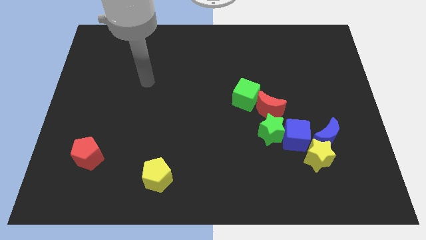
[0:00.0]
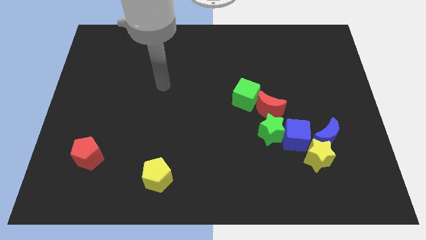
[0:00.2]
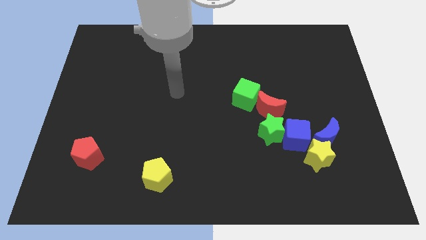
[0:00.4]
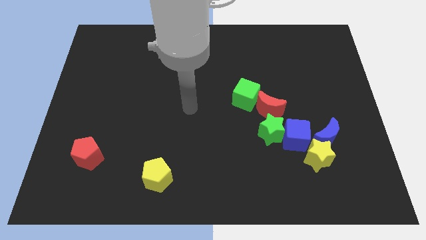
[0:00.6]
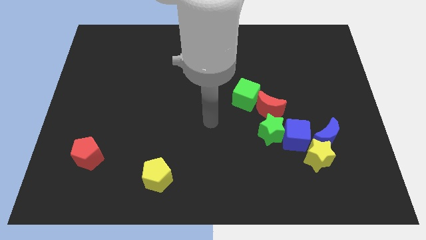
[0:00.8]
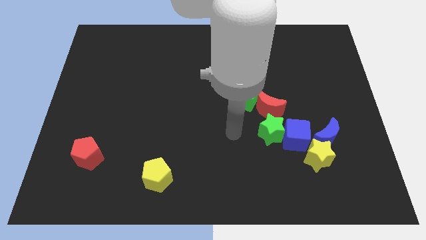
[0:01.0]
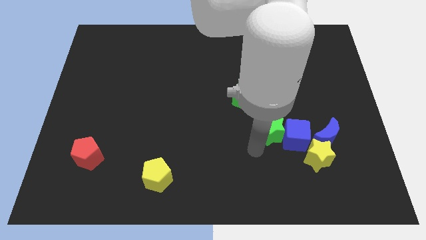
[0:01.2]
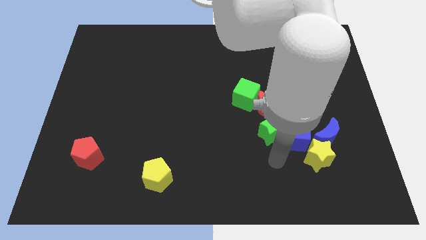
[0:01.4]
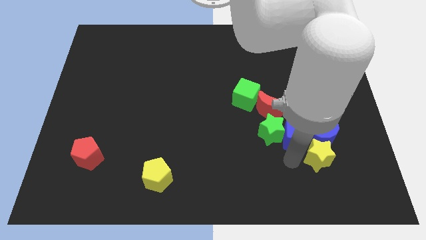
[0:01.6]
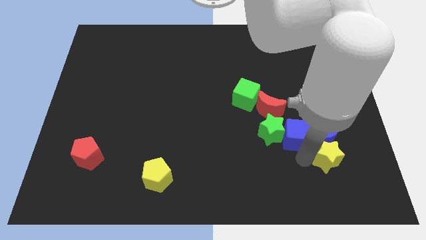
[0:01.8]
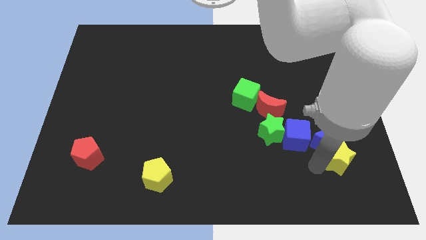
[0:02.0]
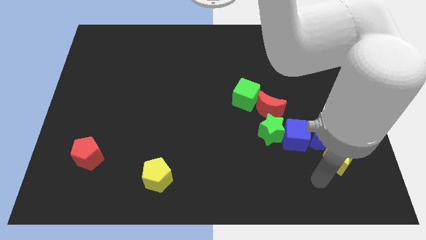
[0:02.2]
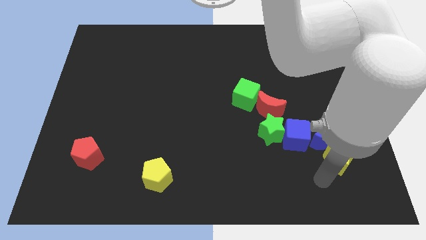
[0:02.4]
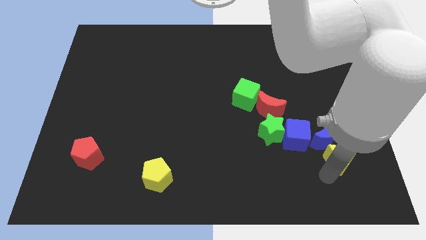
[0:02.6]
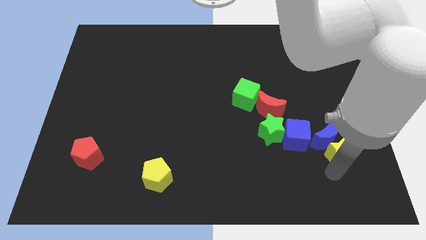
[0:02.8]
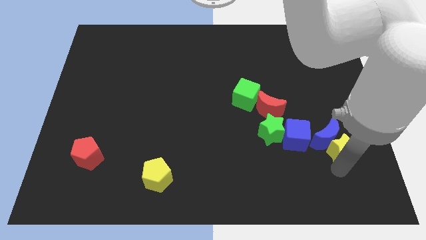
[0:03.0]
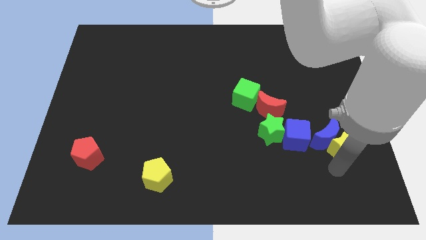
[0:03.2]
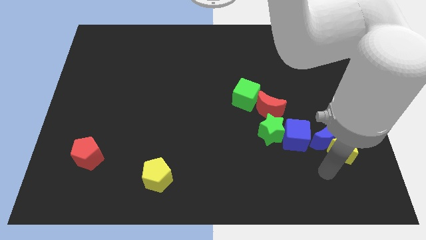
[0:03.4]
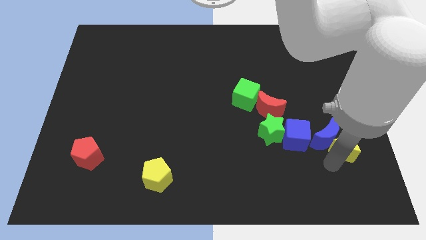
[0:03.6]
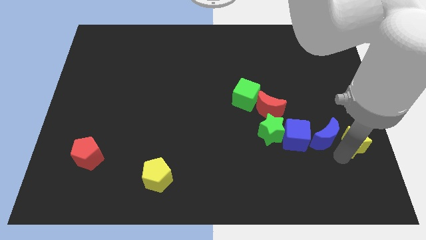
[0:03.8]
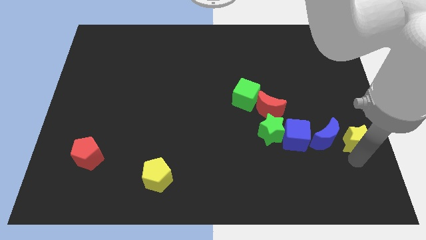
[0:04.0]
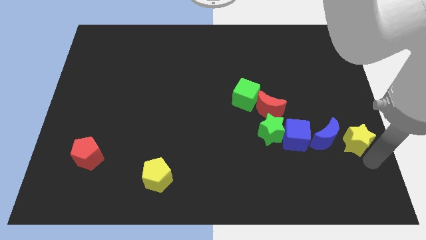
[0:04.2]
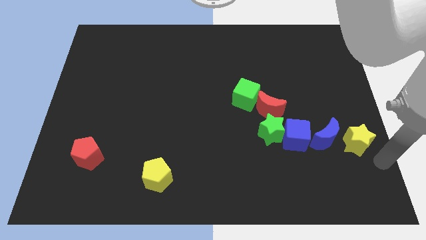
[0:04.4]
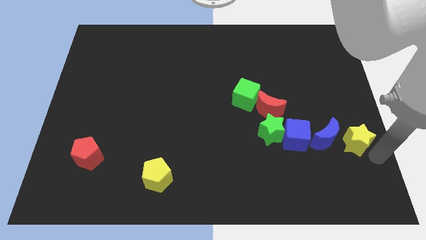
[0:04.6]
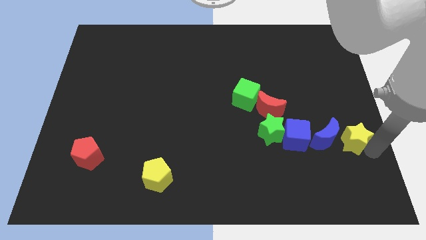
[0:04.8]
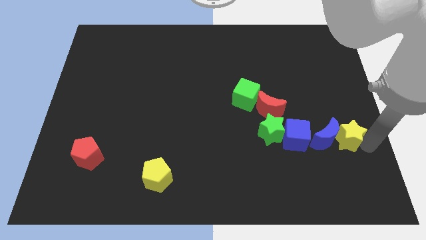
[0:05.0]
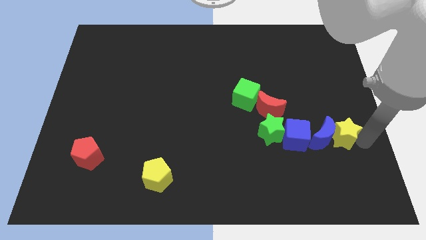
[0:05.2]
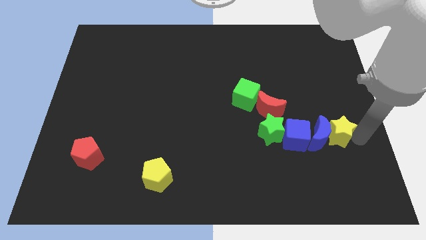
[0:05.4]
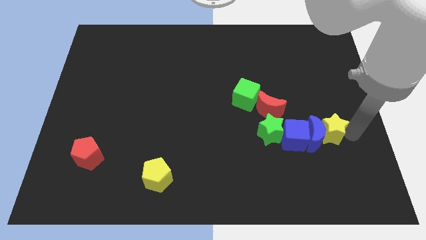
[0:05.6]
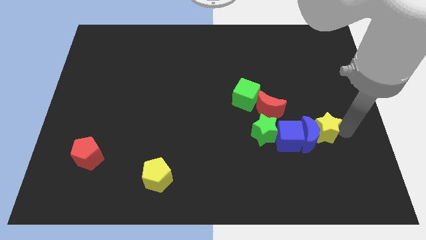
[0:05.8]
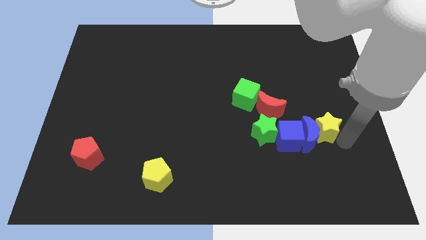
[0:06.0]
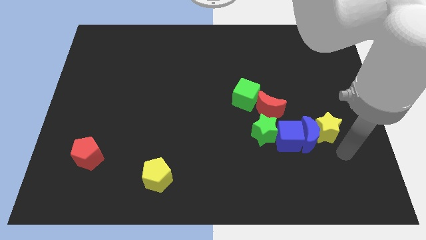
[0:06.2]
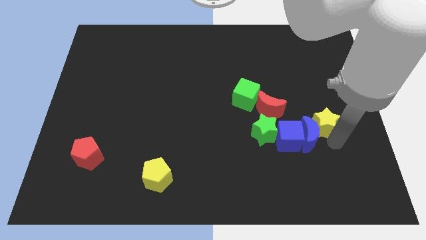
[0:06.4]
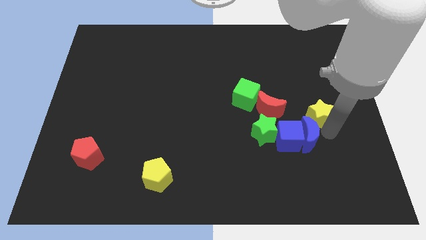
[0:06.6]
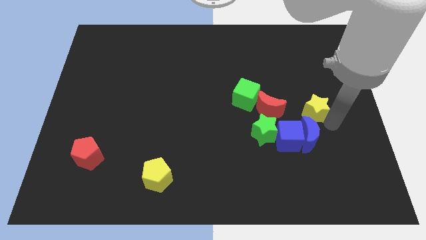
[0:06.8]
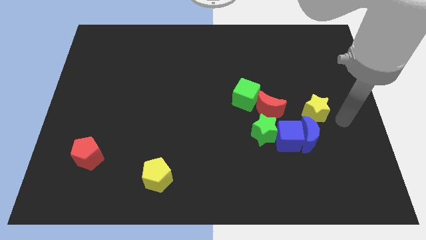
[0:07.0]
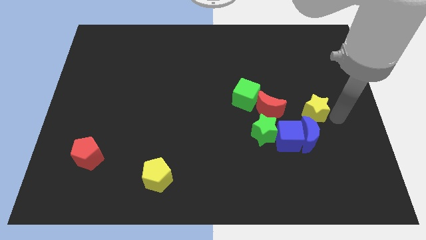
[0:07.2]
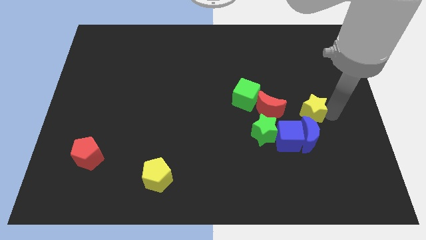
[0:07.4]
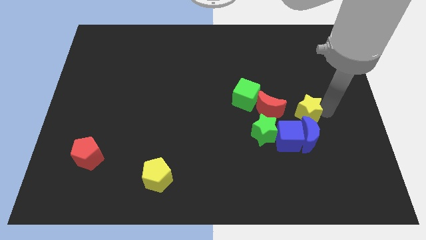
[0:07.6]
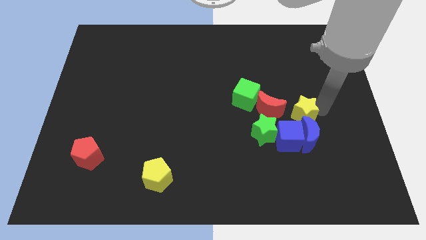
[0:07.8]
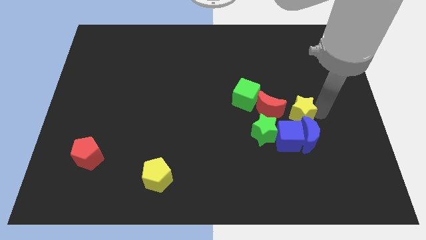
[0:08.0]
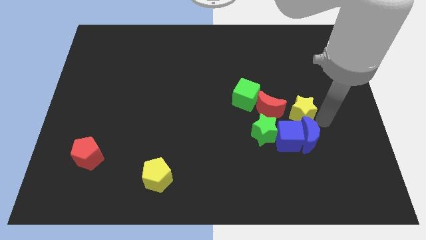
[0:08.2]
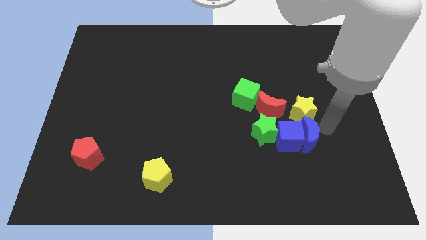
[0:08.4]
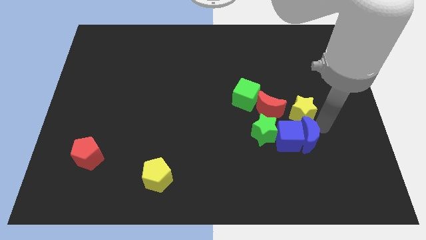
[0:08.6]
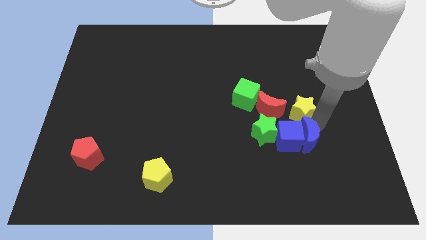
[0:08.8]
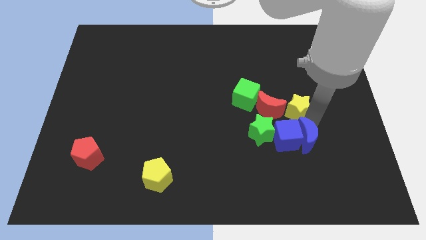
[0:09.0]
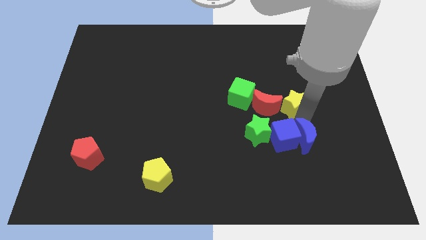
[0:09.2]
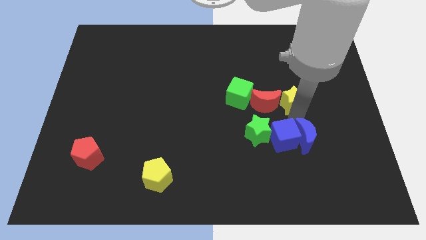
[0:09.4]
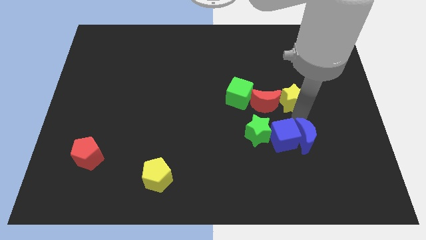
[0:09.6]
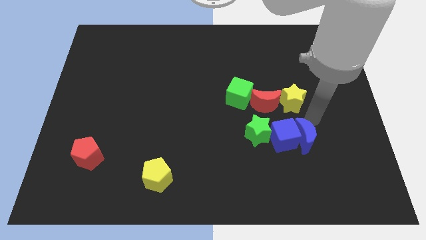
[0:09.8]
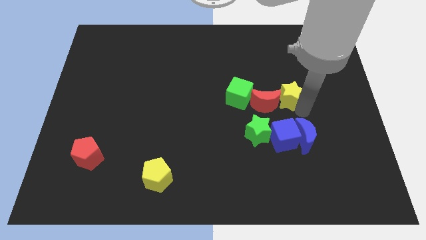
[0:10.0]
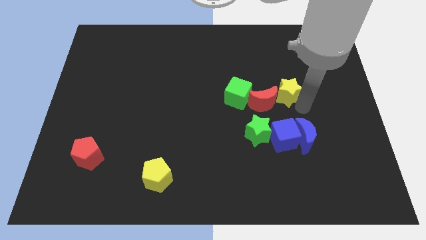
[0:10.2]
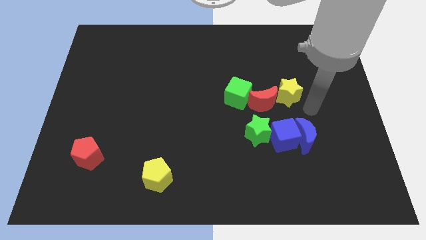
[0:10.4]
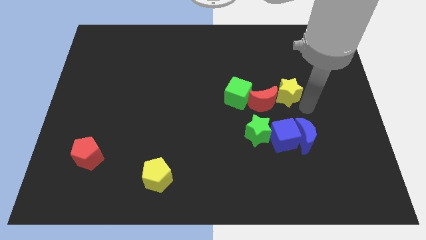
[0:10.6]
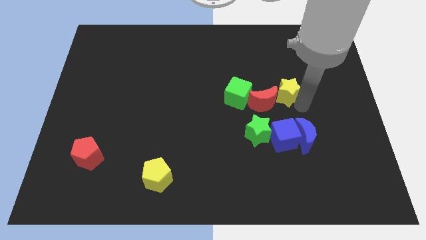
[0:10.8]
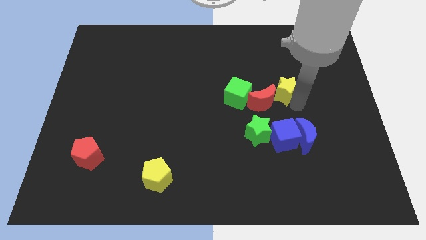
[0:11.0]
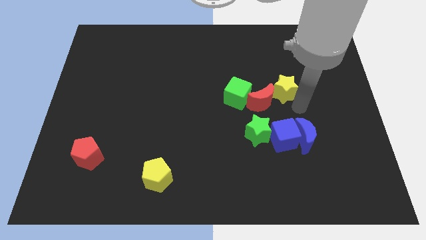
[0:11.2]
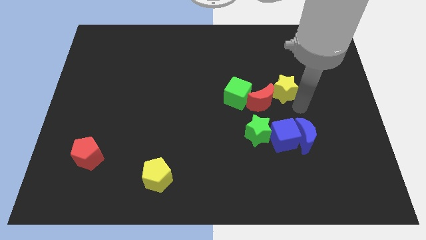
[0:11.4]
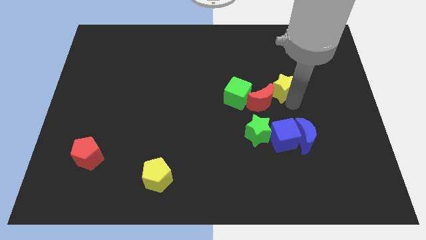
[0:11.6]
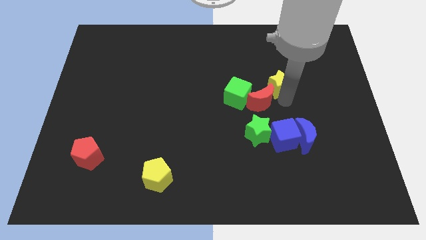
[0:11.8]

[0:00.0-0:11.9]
put the yellow star to the top of the red moon
